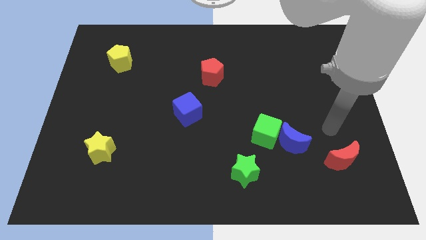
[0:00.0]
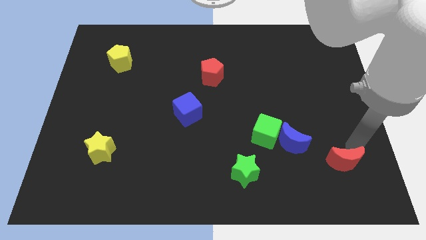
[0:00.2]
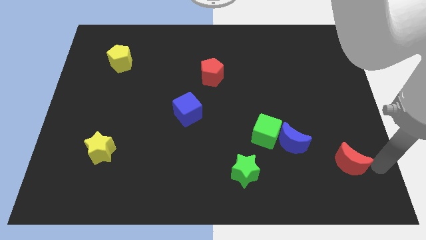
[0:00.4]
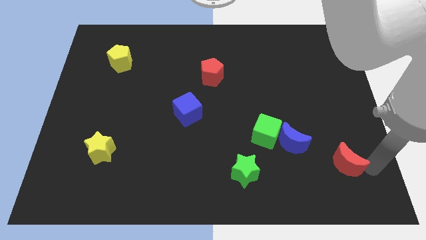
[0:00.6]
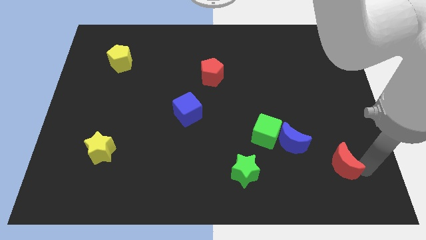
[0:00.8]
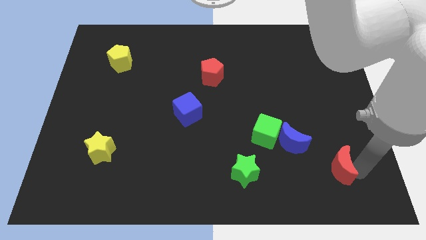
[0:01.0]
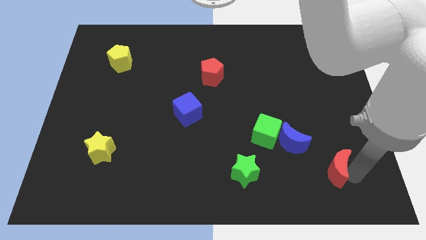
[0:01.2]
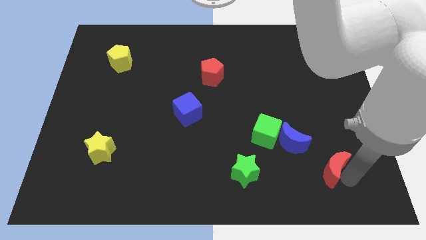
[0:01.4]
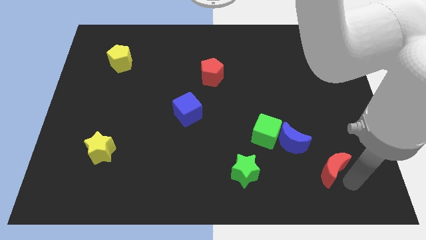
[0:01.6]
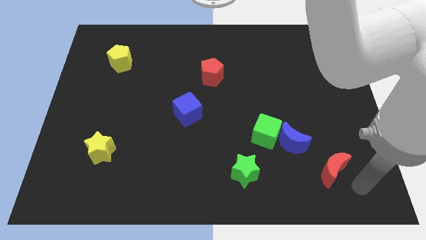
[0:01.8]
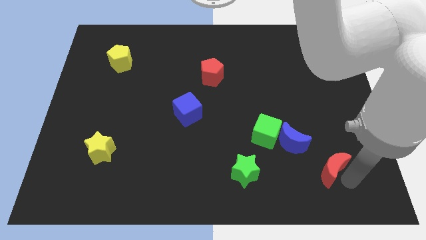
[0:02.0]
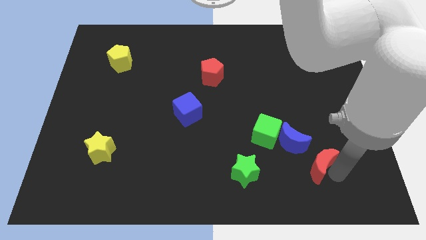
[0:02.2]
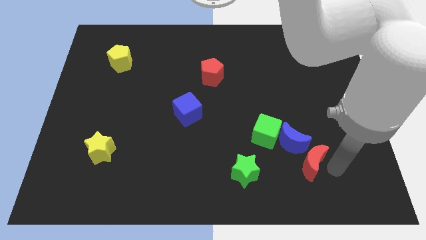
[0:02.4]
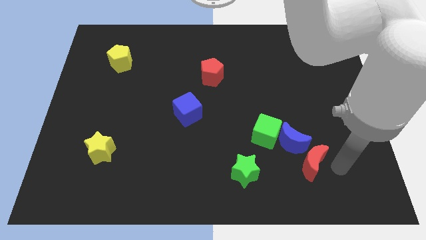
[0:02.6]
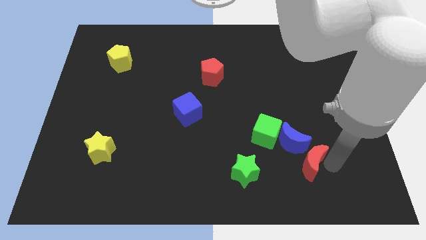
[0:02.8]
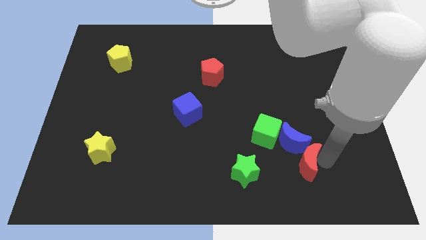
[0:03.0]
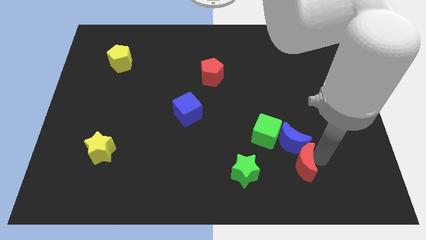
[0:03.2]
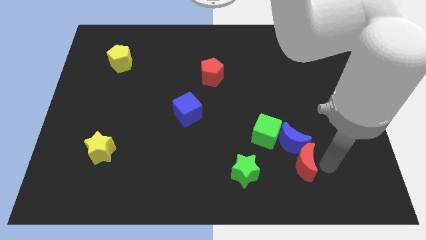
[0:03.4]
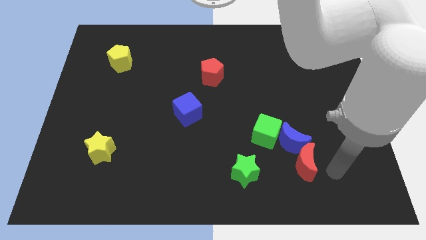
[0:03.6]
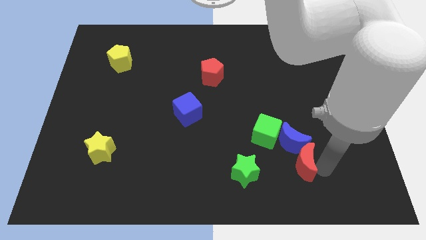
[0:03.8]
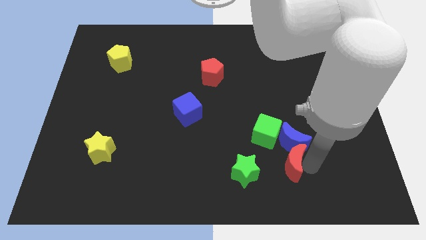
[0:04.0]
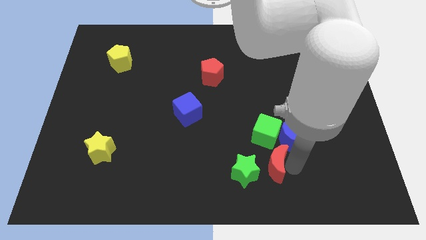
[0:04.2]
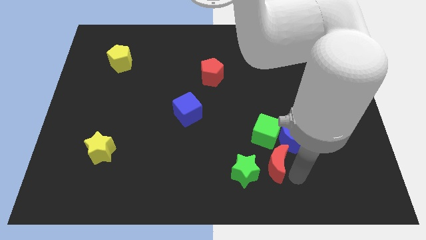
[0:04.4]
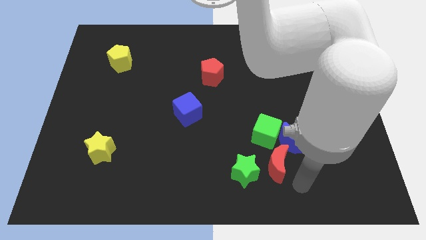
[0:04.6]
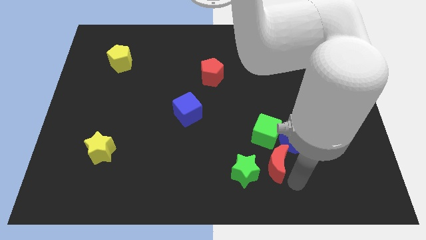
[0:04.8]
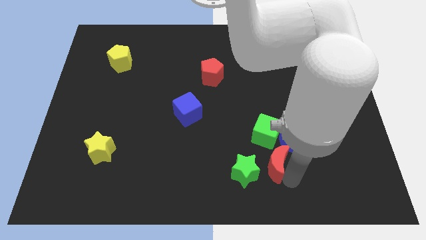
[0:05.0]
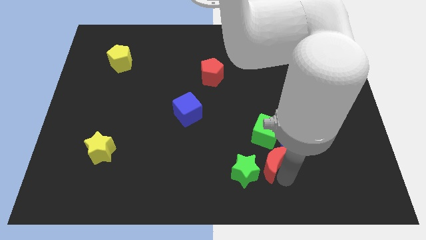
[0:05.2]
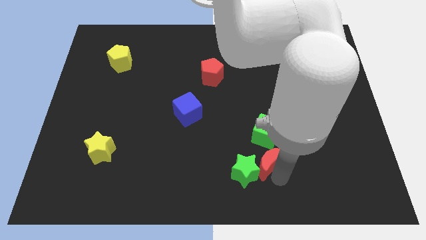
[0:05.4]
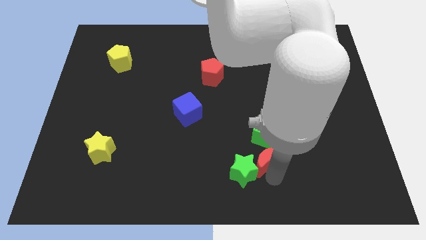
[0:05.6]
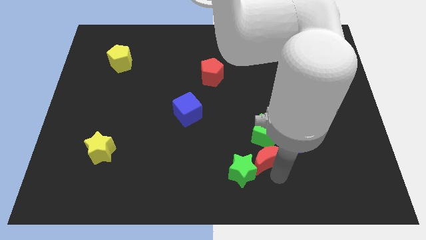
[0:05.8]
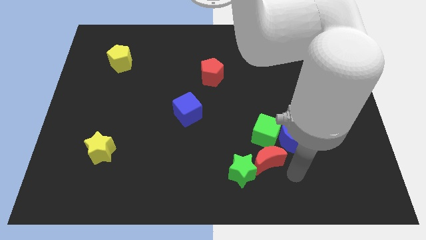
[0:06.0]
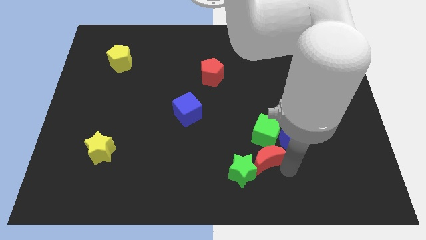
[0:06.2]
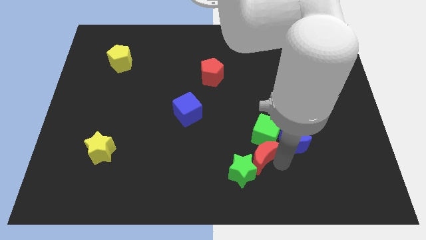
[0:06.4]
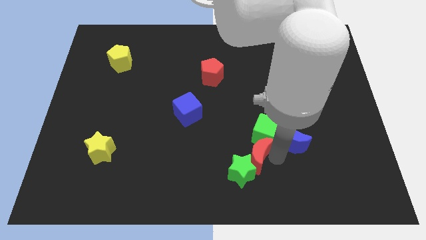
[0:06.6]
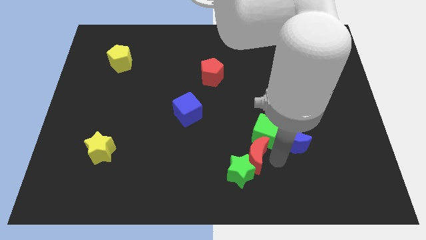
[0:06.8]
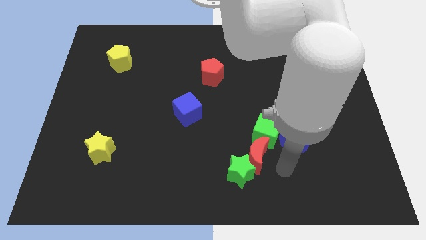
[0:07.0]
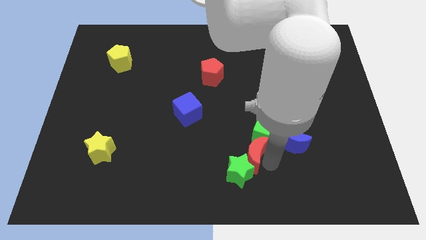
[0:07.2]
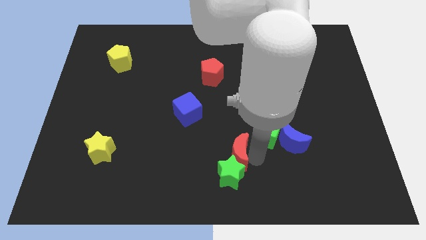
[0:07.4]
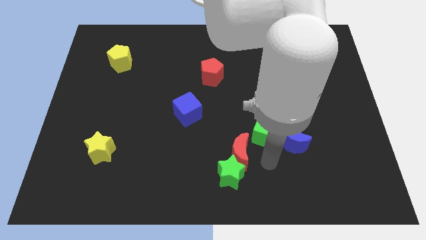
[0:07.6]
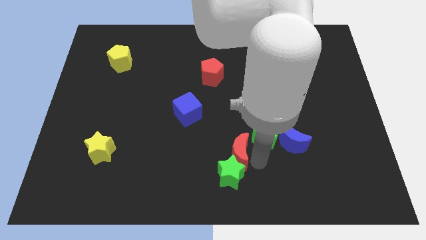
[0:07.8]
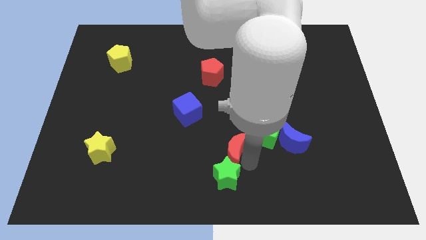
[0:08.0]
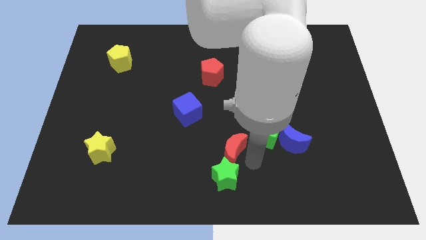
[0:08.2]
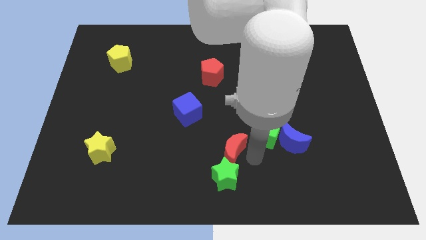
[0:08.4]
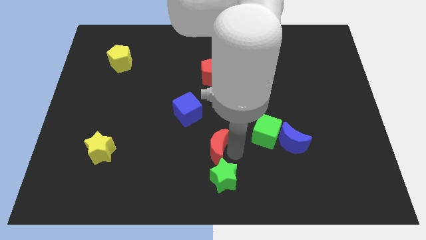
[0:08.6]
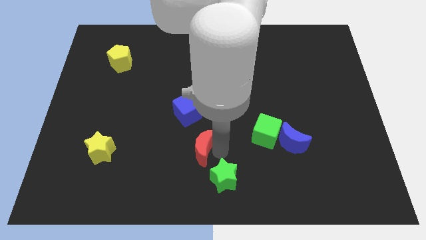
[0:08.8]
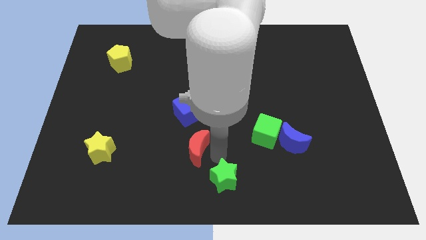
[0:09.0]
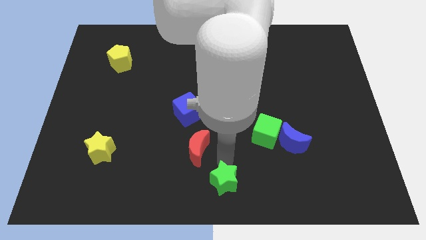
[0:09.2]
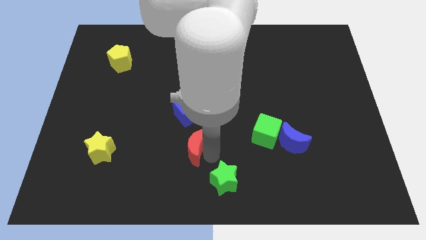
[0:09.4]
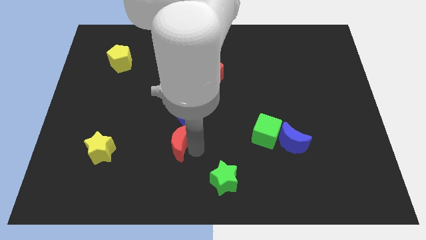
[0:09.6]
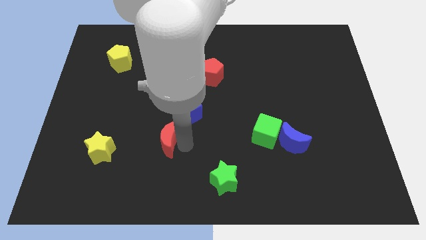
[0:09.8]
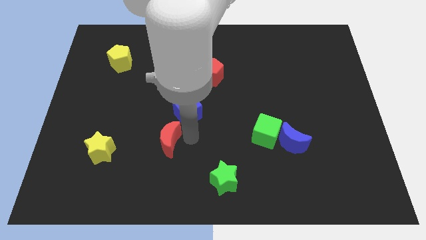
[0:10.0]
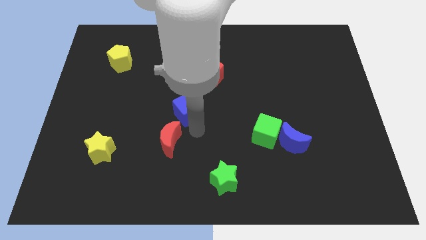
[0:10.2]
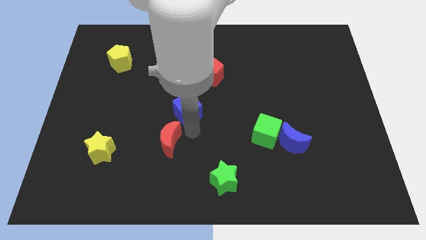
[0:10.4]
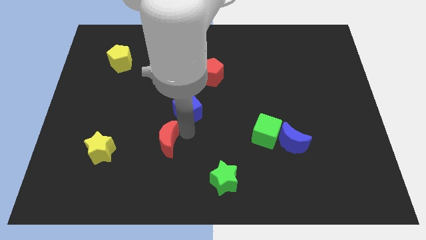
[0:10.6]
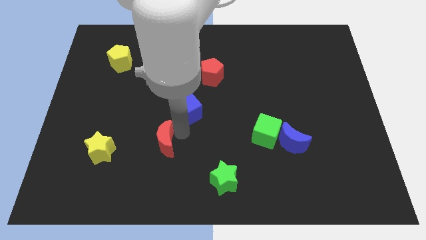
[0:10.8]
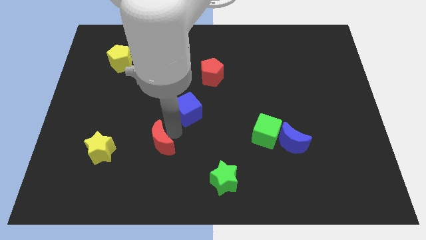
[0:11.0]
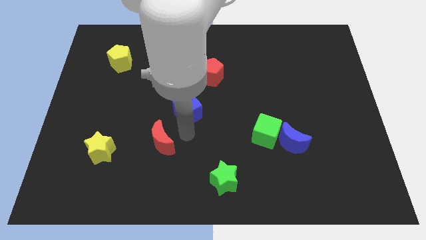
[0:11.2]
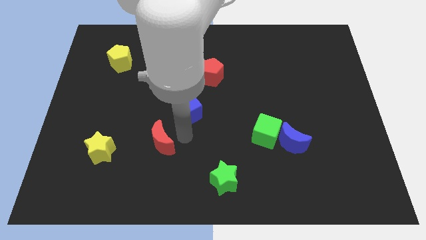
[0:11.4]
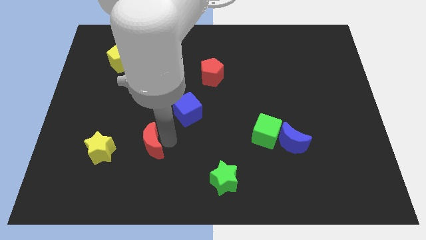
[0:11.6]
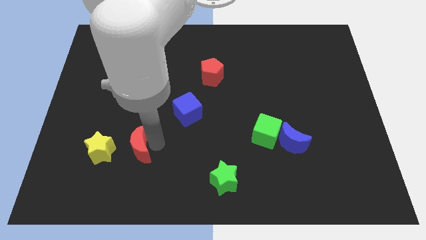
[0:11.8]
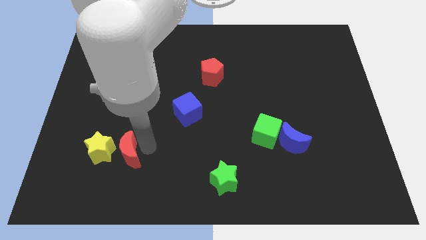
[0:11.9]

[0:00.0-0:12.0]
slide the red moon next to the yellow star

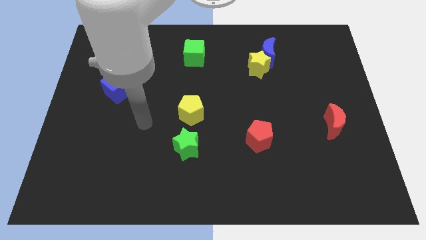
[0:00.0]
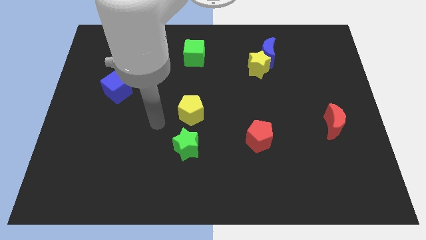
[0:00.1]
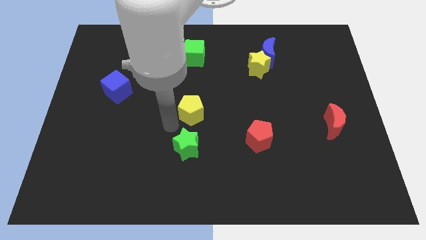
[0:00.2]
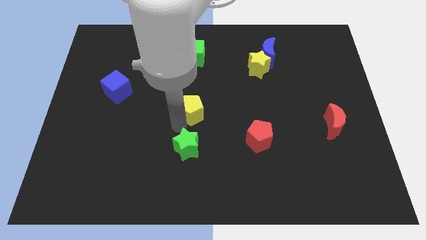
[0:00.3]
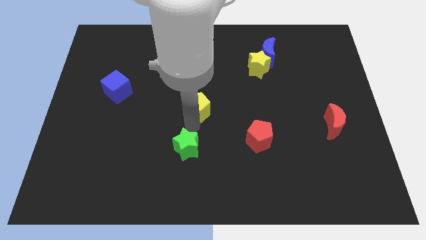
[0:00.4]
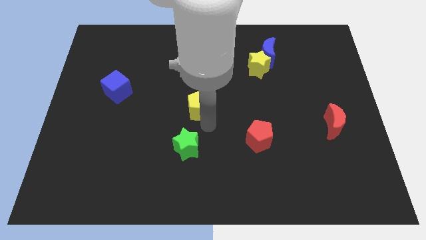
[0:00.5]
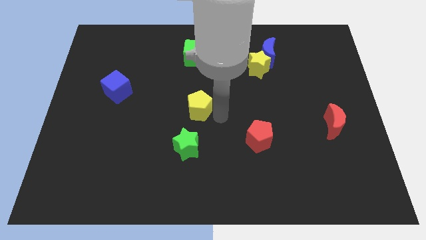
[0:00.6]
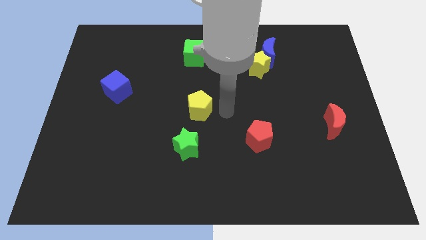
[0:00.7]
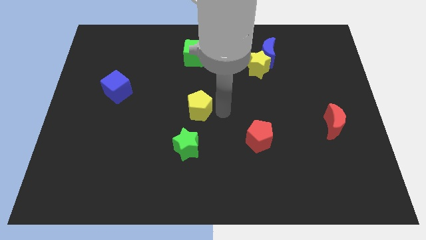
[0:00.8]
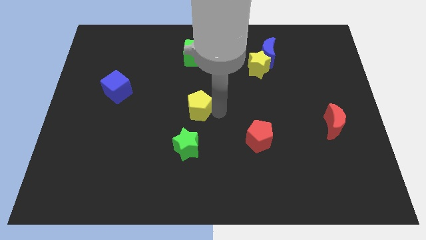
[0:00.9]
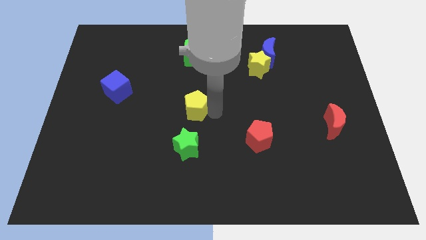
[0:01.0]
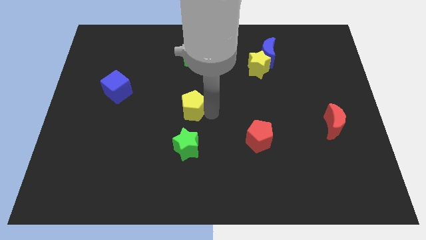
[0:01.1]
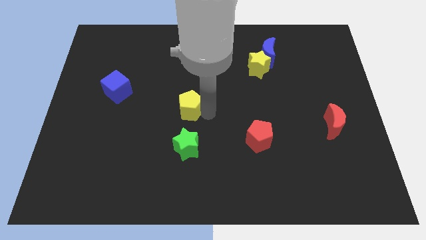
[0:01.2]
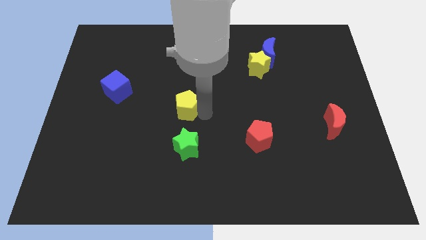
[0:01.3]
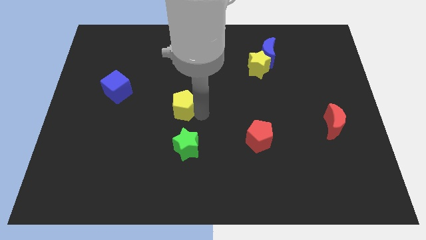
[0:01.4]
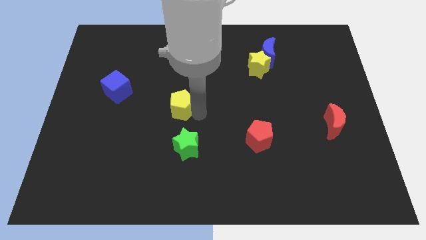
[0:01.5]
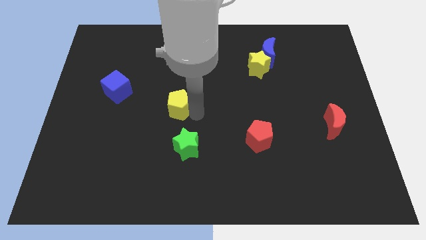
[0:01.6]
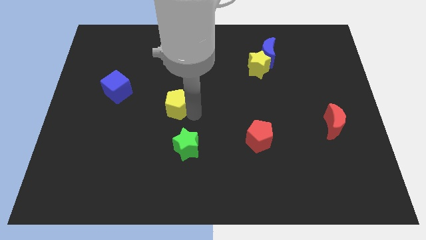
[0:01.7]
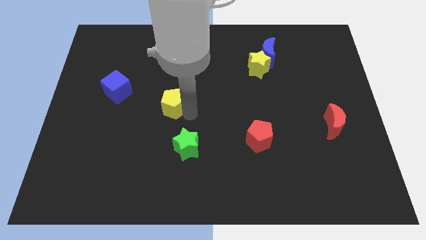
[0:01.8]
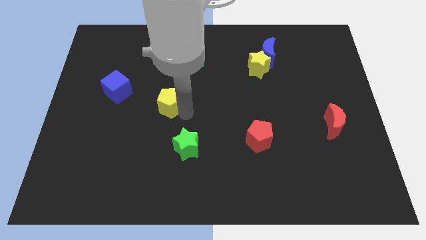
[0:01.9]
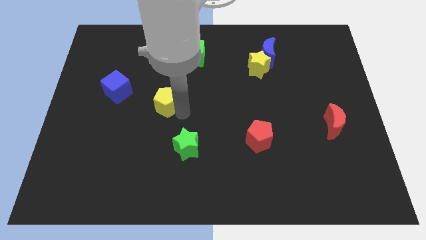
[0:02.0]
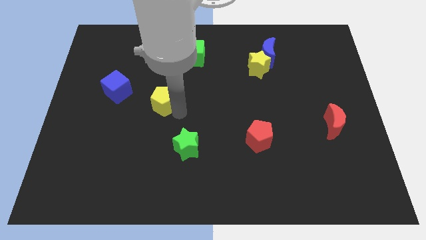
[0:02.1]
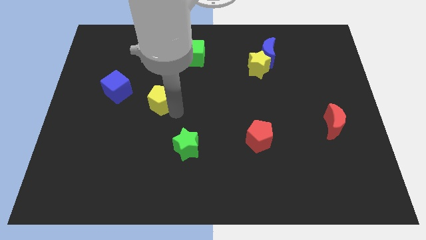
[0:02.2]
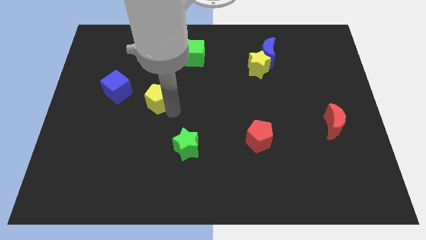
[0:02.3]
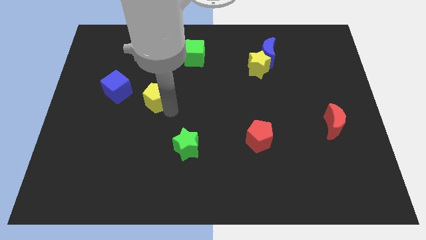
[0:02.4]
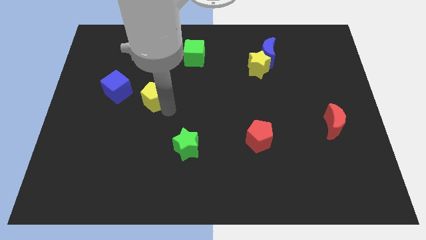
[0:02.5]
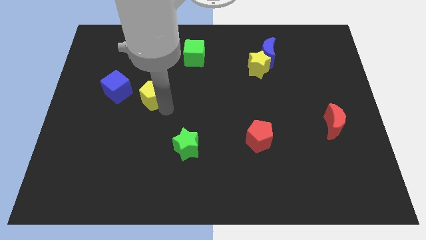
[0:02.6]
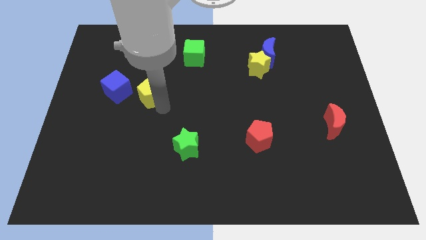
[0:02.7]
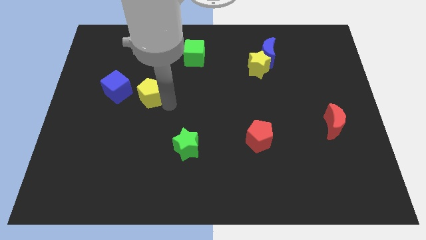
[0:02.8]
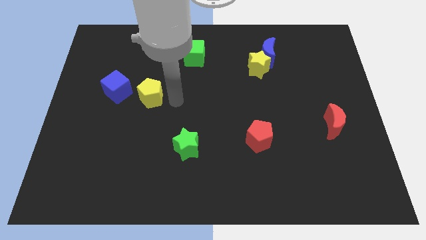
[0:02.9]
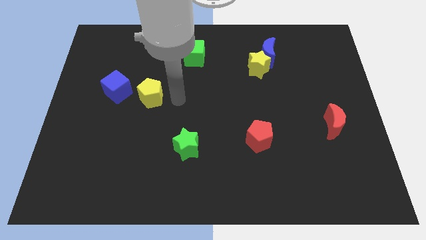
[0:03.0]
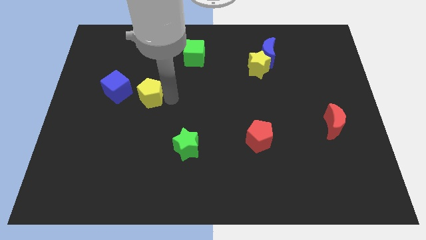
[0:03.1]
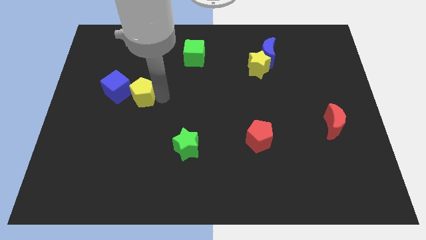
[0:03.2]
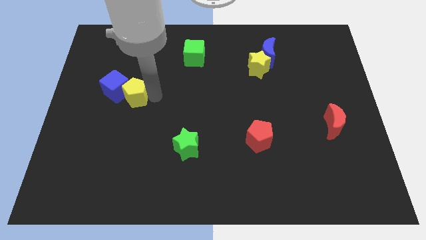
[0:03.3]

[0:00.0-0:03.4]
push the yellow pentagon towards the blue cube
